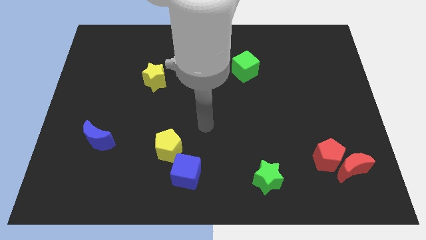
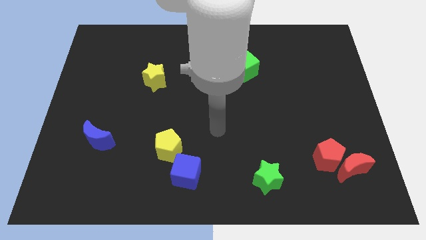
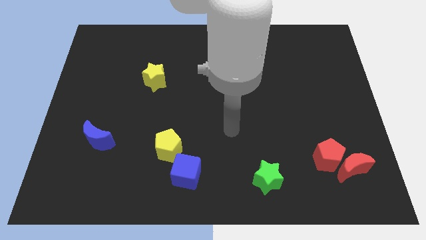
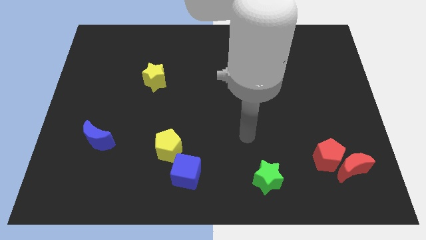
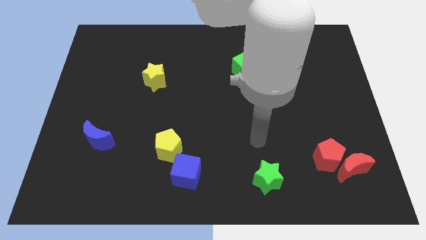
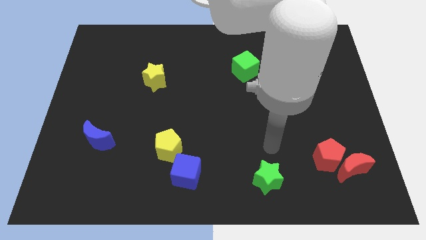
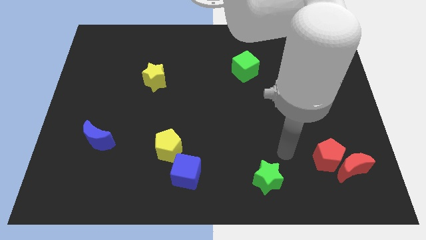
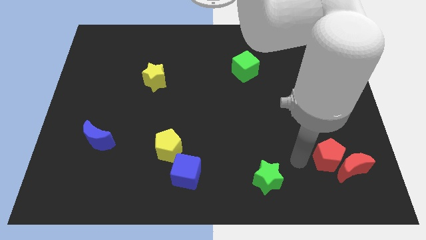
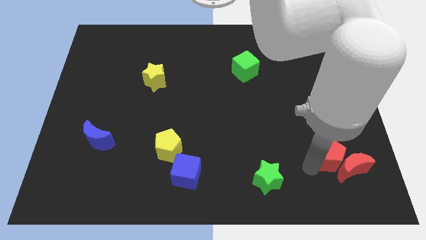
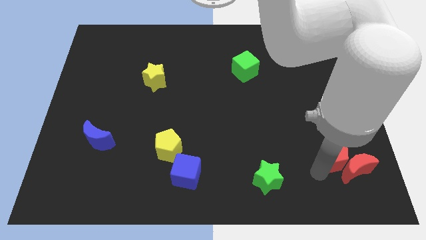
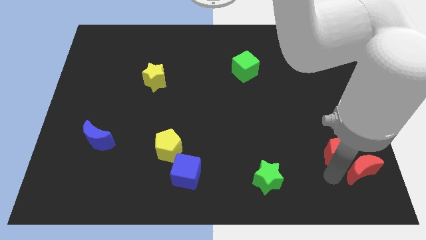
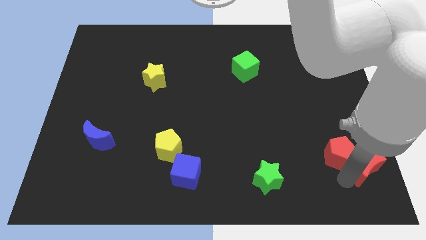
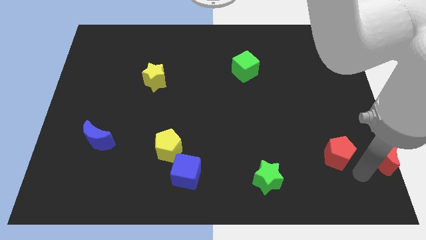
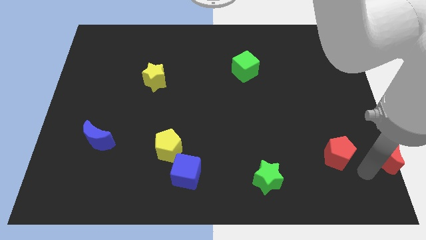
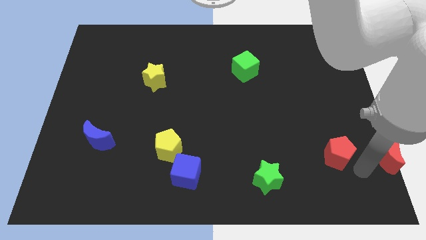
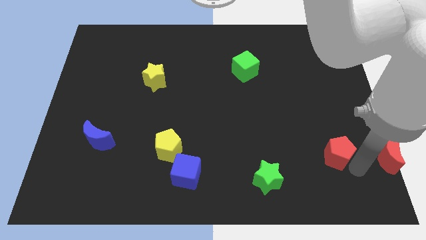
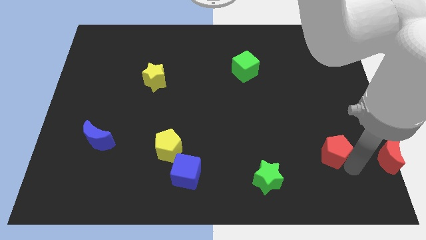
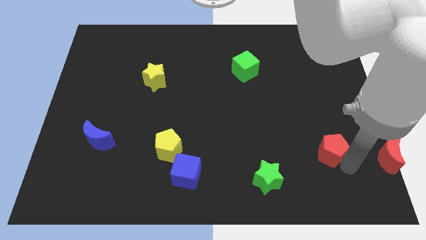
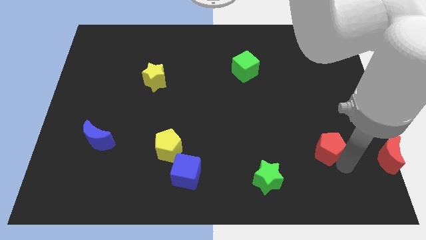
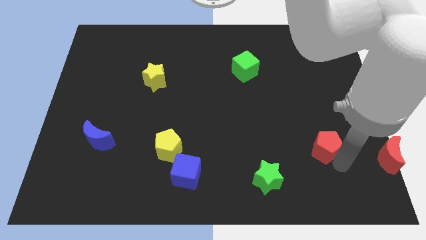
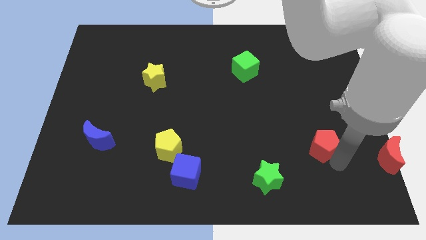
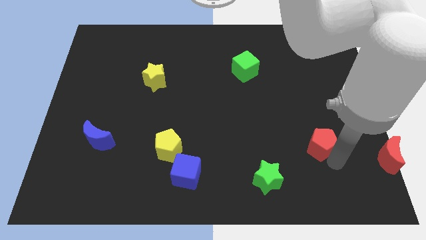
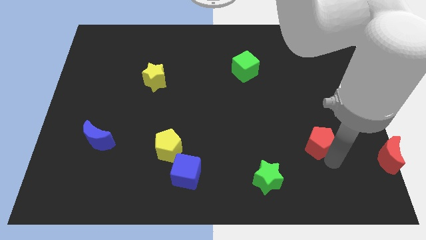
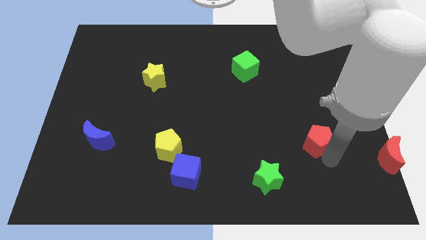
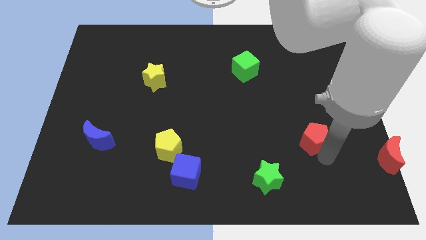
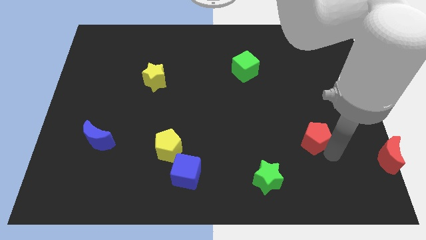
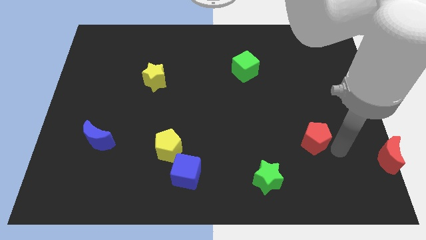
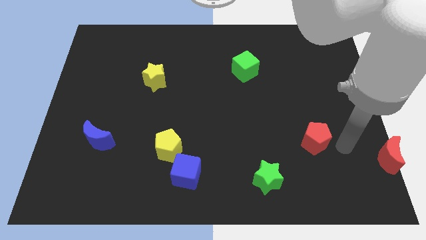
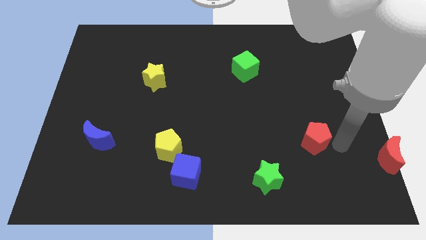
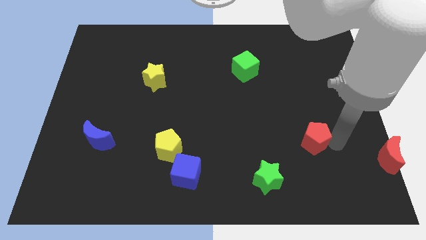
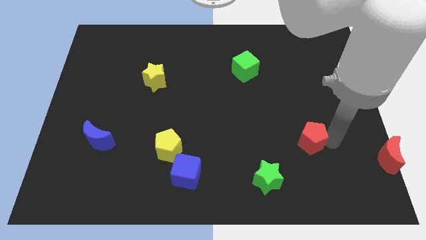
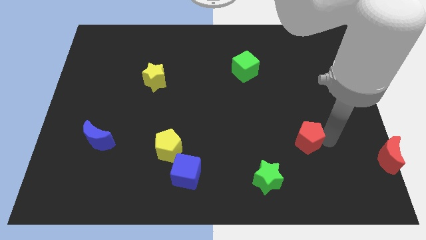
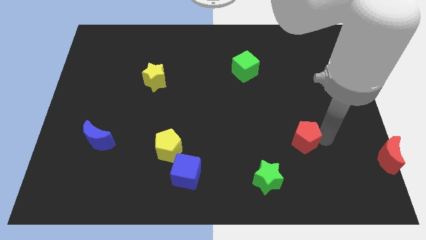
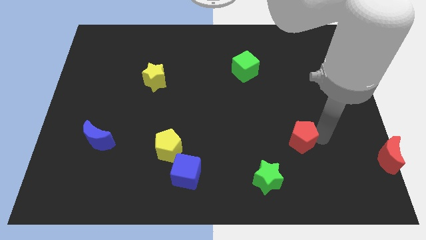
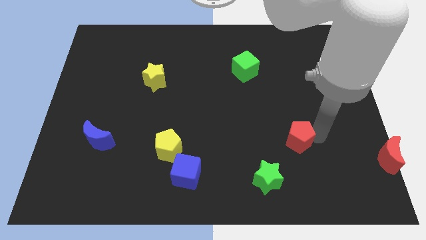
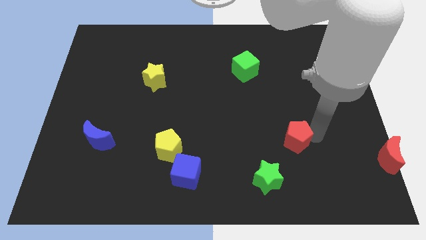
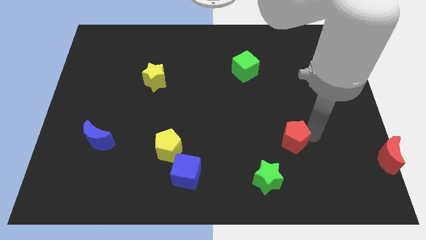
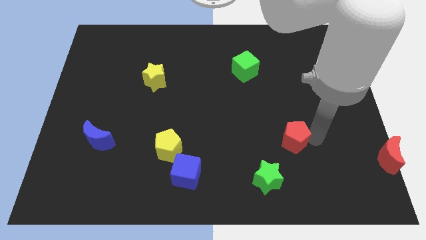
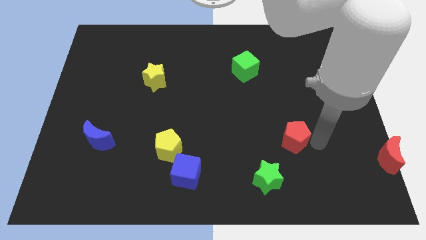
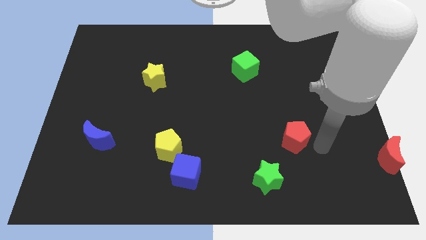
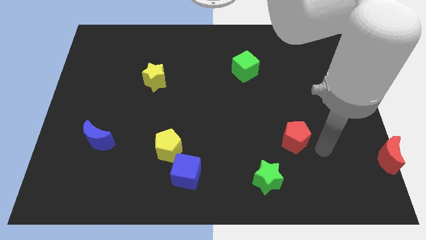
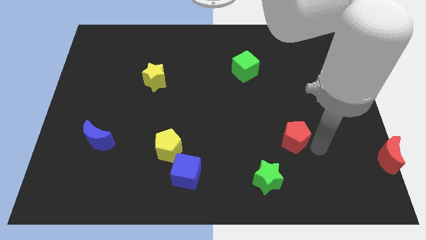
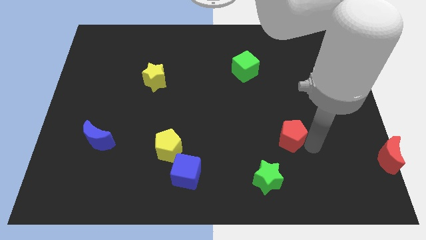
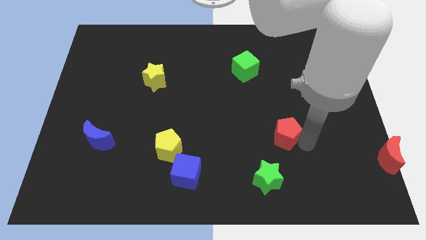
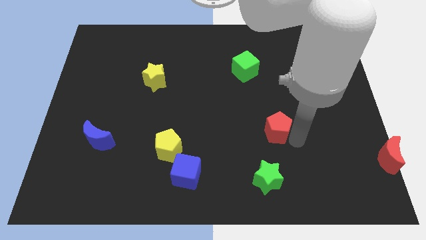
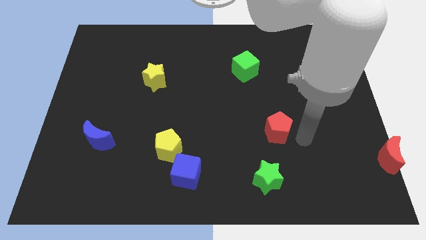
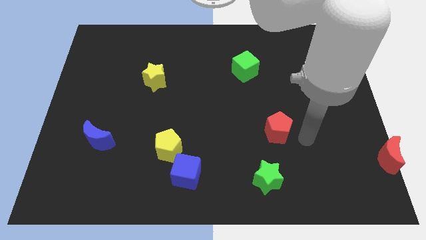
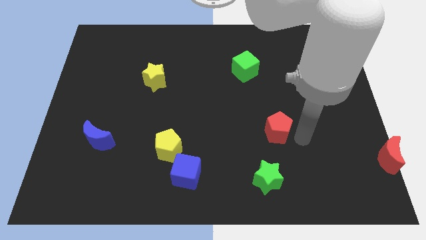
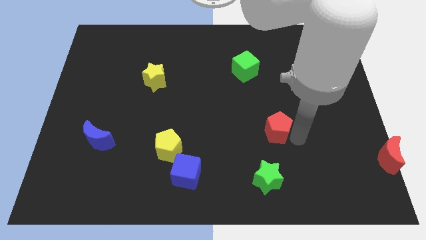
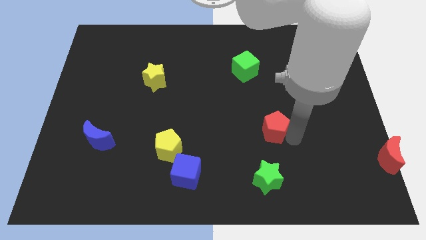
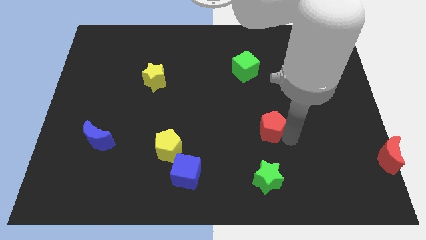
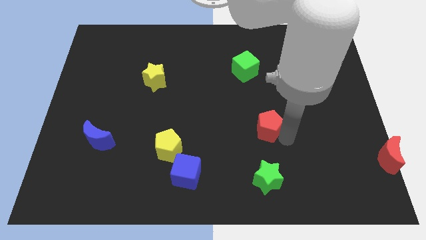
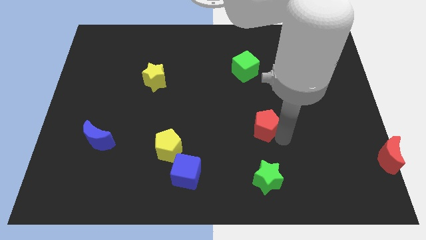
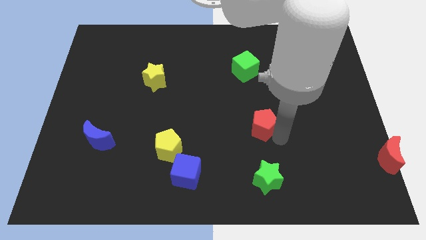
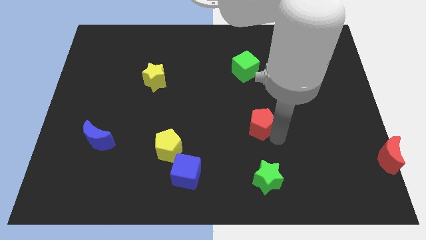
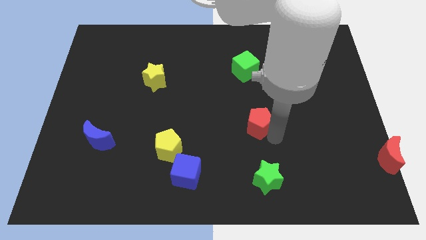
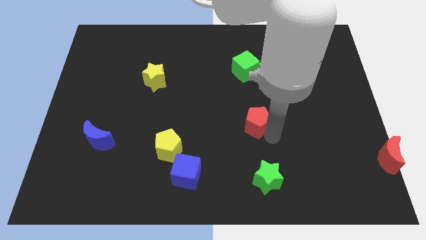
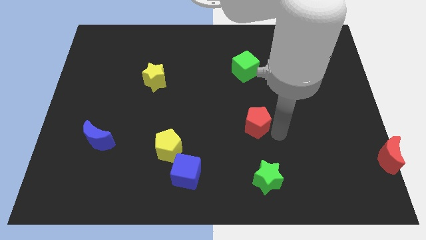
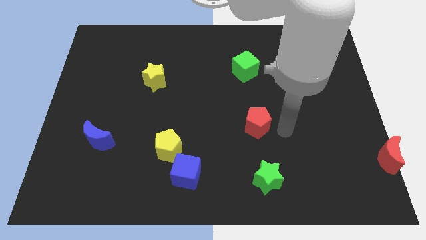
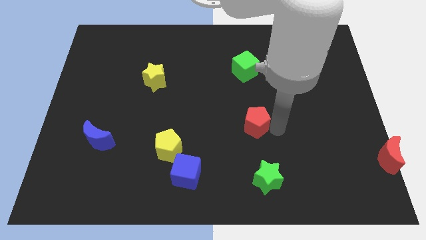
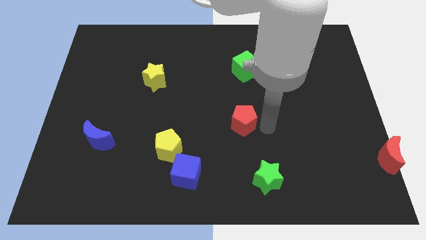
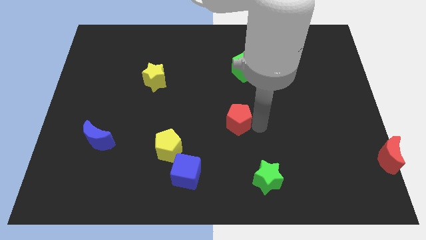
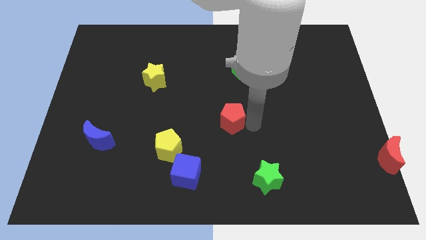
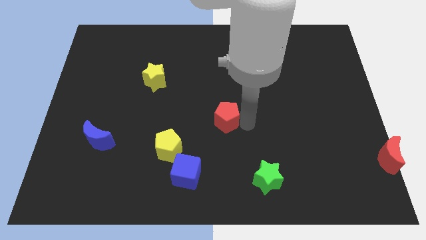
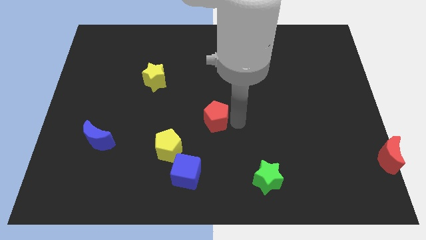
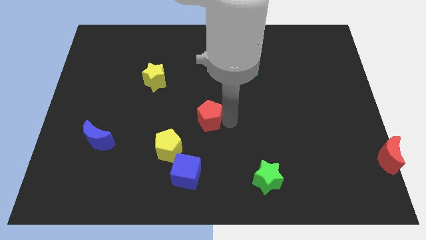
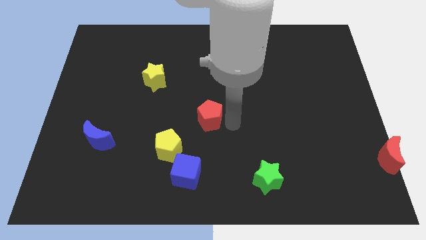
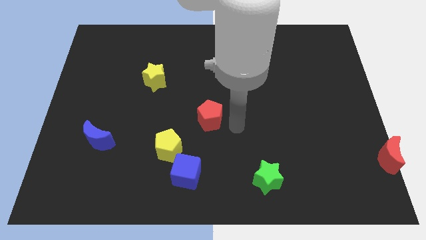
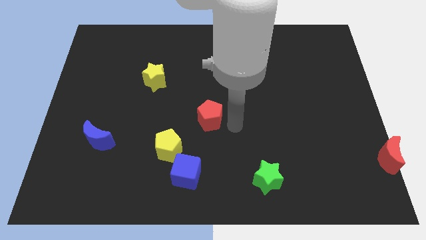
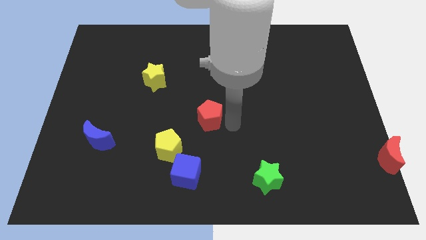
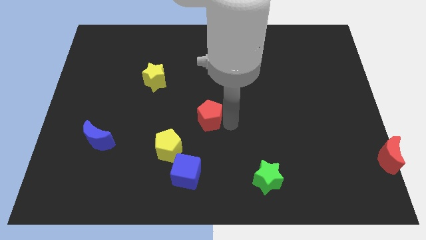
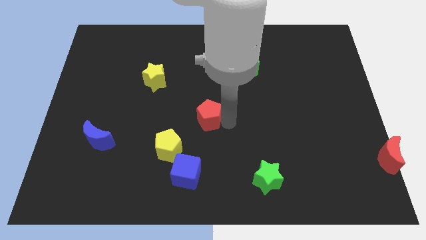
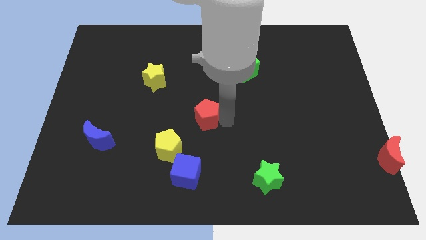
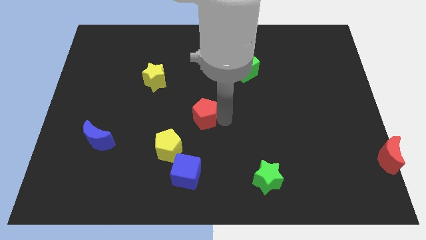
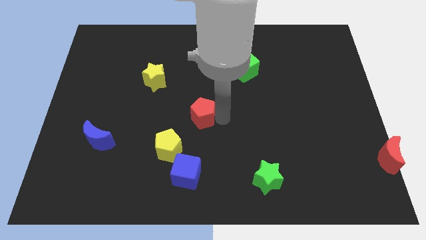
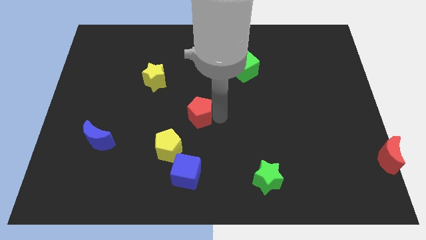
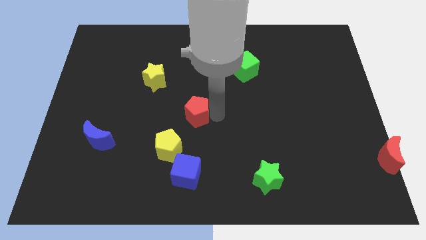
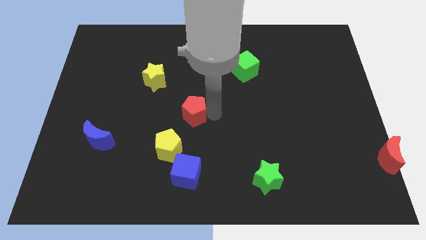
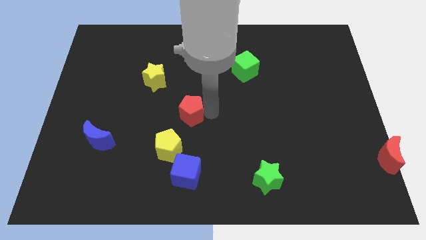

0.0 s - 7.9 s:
put the red pentagon above the yellow pentagon
